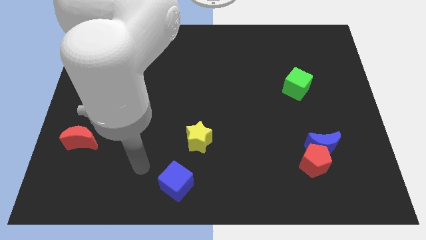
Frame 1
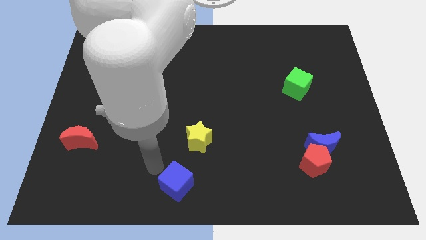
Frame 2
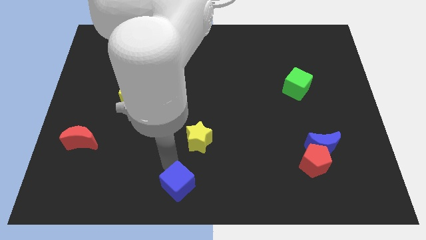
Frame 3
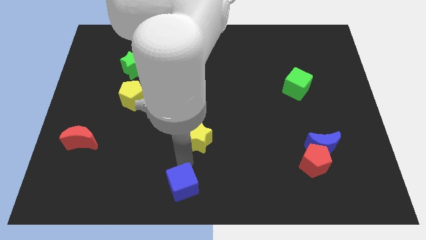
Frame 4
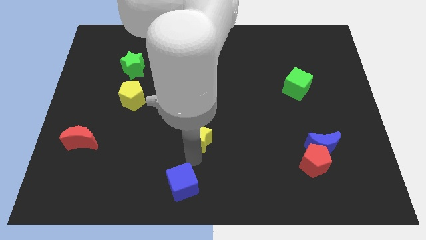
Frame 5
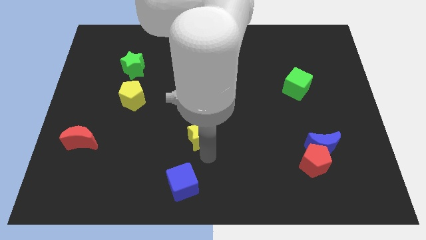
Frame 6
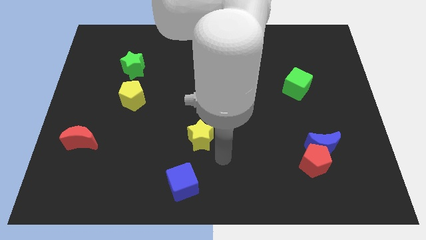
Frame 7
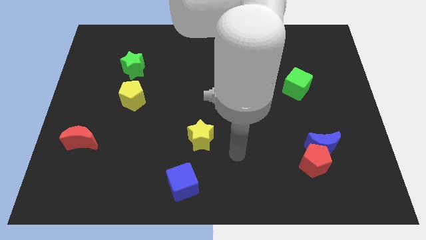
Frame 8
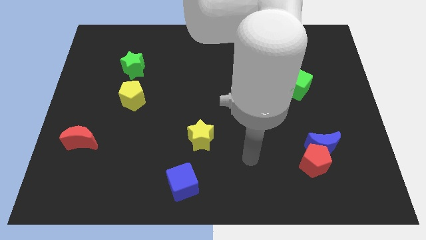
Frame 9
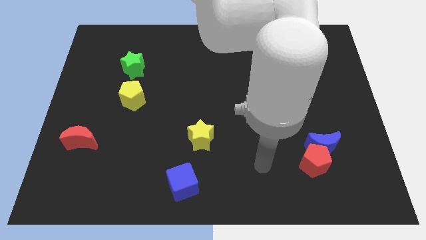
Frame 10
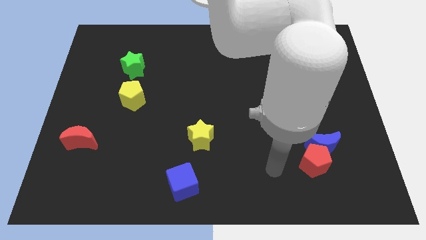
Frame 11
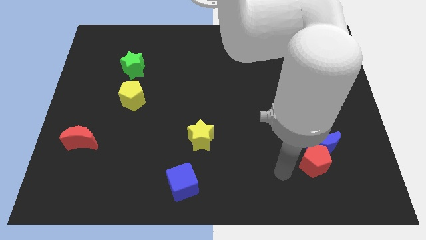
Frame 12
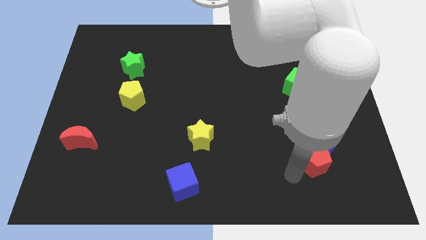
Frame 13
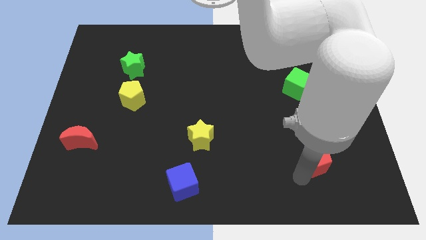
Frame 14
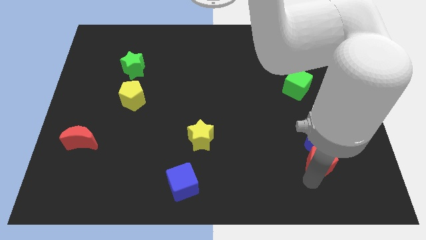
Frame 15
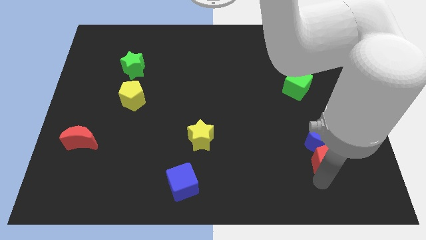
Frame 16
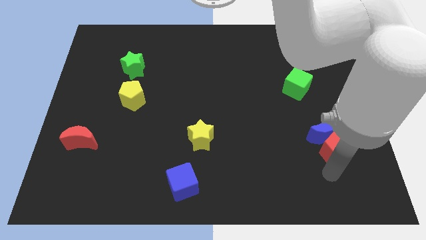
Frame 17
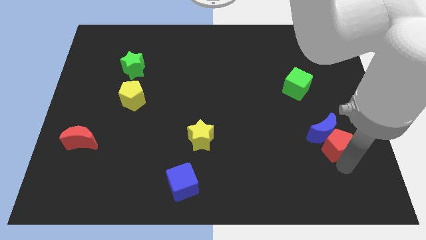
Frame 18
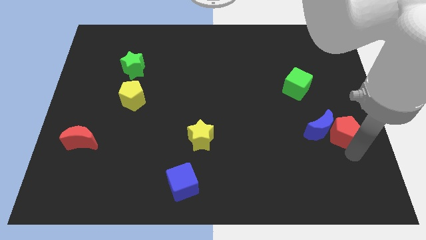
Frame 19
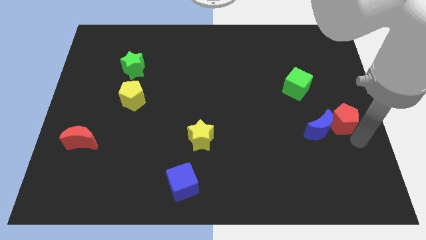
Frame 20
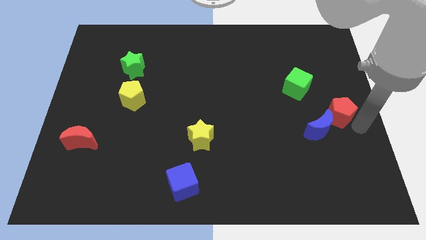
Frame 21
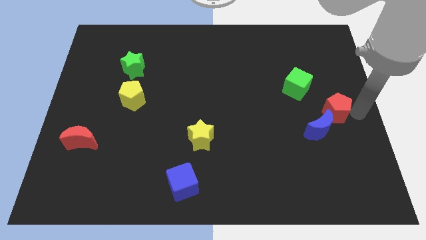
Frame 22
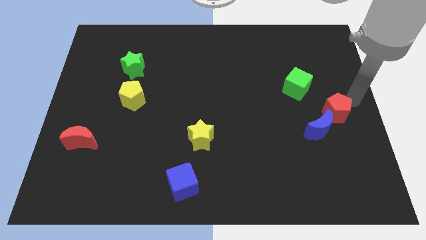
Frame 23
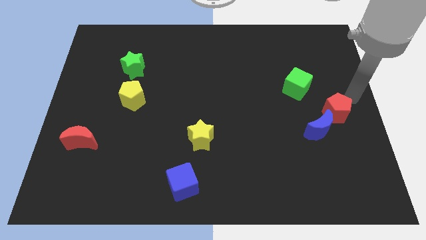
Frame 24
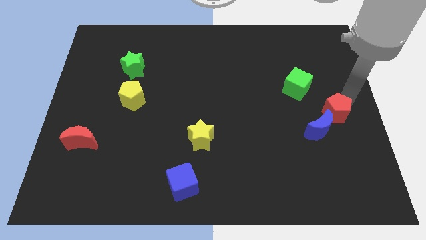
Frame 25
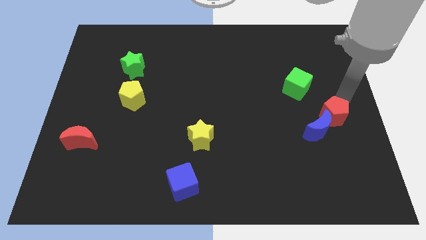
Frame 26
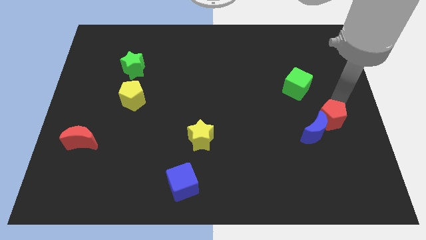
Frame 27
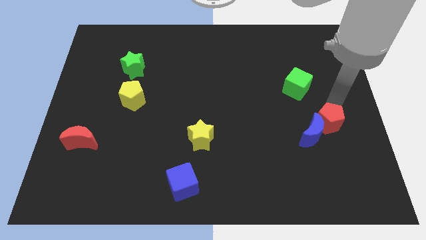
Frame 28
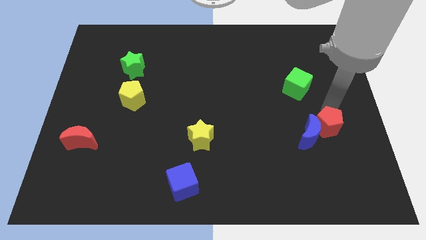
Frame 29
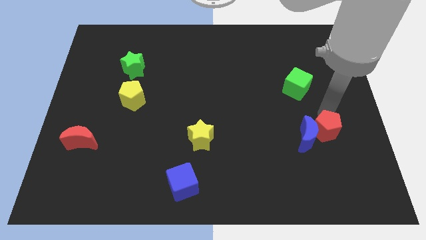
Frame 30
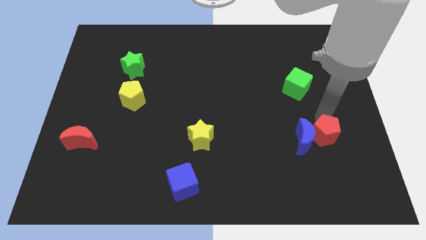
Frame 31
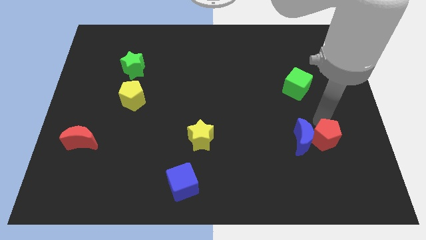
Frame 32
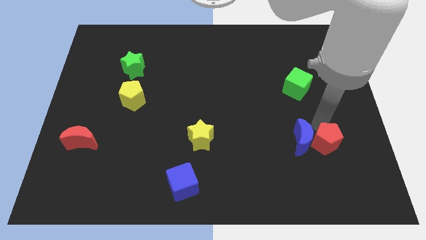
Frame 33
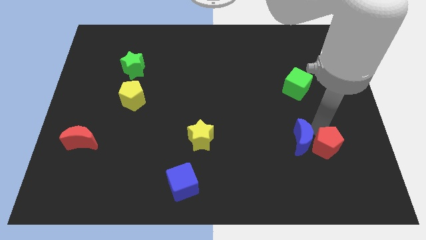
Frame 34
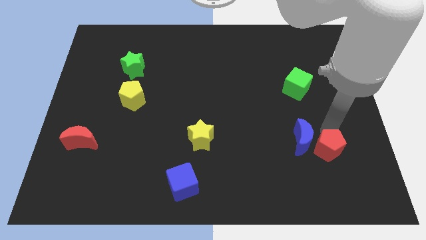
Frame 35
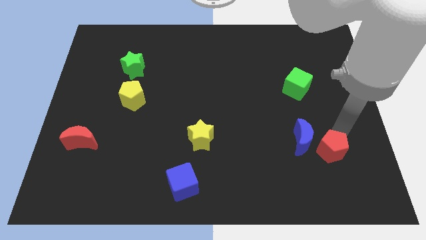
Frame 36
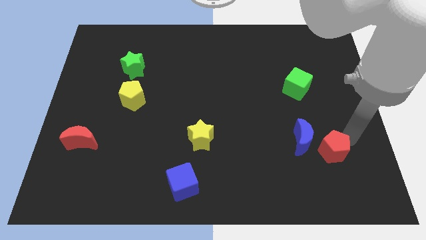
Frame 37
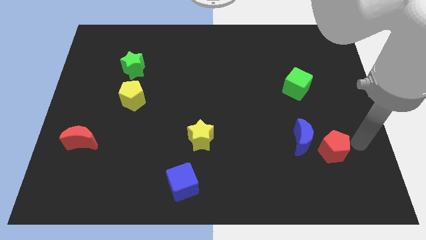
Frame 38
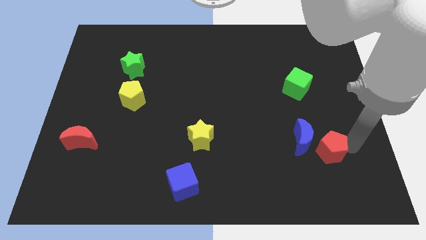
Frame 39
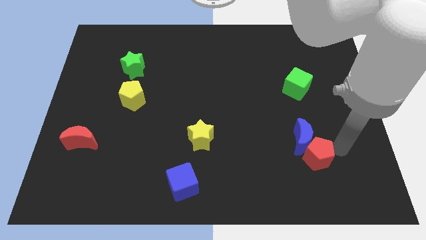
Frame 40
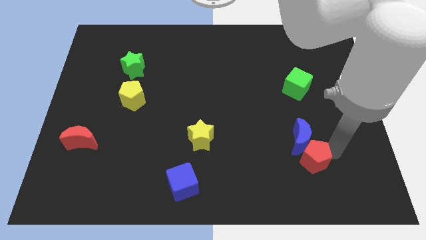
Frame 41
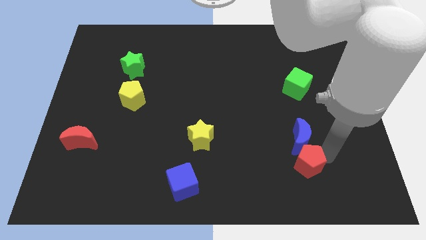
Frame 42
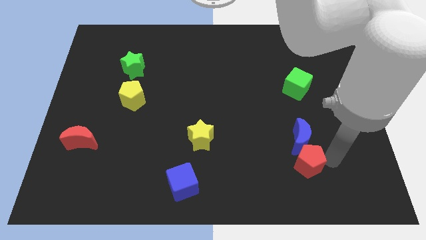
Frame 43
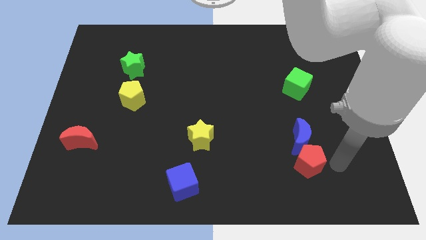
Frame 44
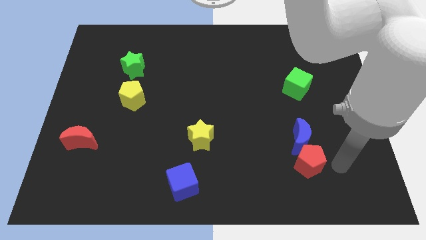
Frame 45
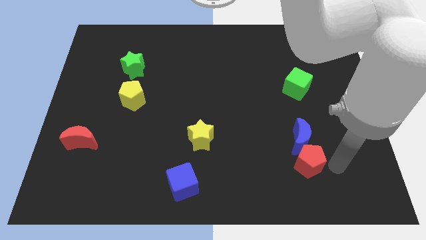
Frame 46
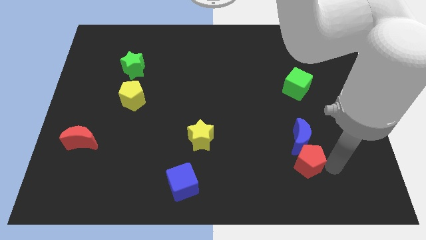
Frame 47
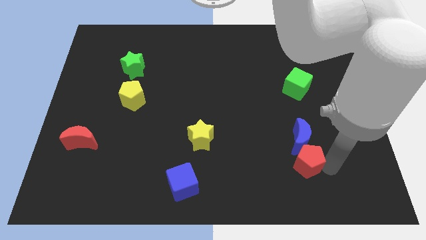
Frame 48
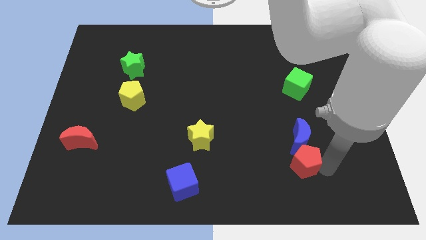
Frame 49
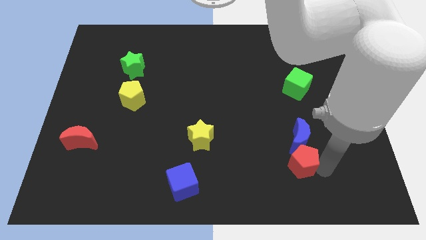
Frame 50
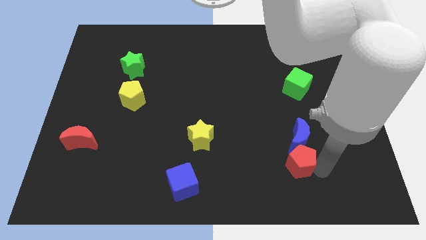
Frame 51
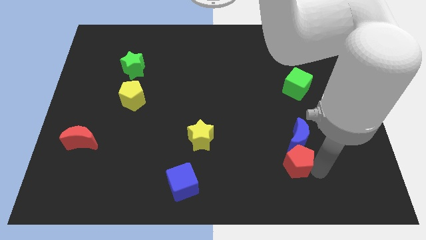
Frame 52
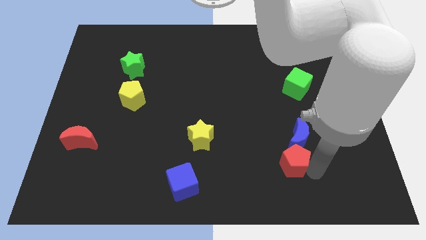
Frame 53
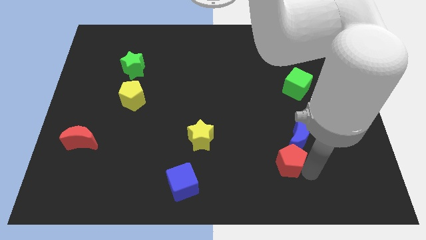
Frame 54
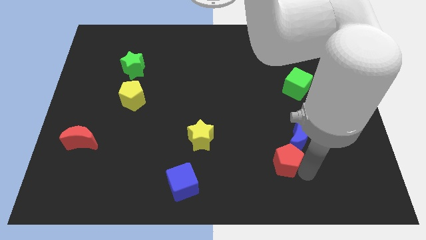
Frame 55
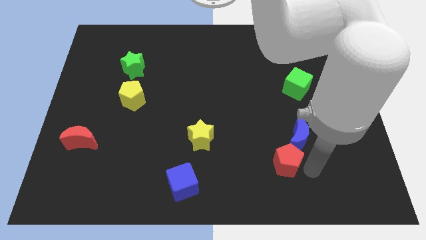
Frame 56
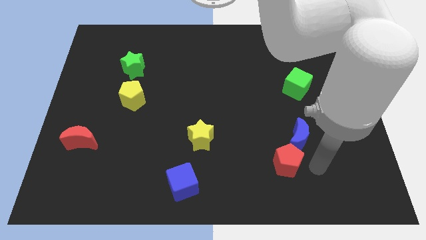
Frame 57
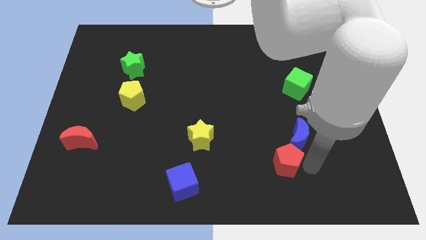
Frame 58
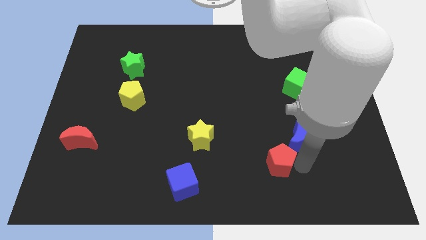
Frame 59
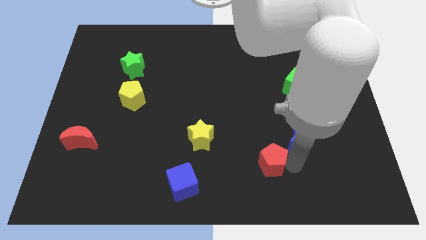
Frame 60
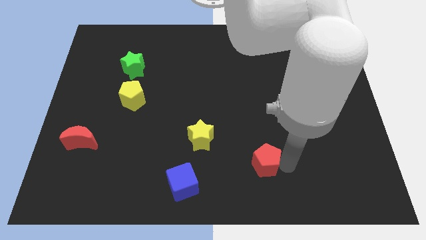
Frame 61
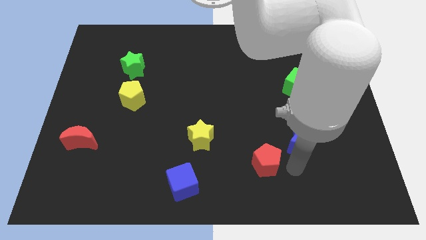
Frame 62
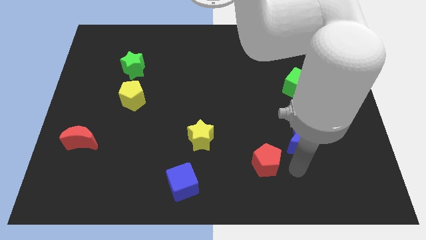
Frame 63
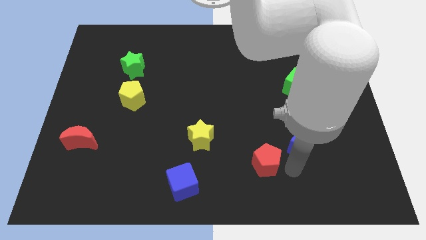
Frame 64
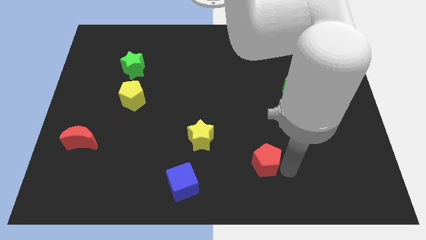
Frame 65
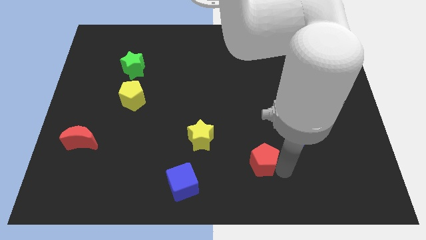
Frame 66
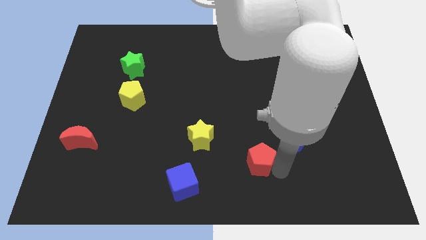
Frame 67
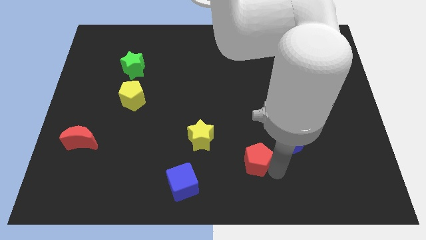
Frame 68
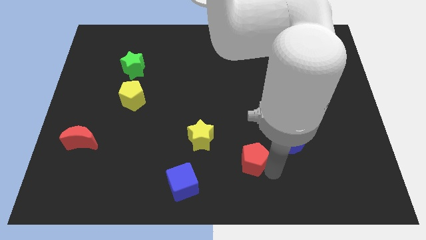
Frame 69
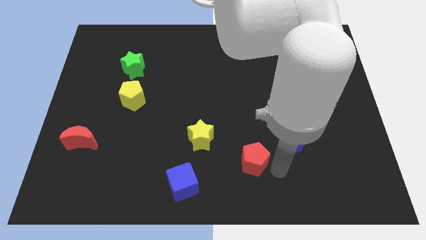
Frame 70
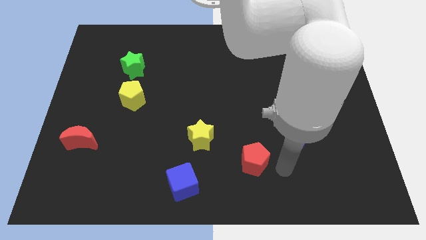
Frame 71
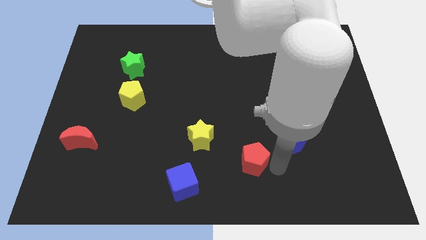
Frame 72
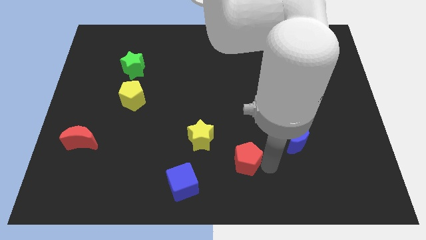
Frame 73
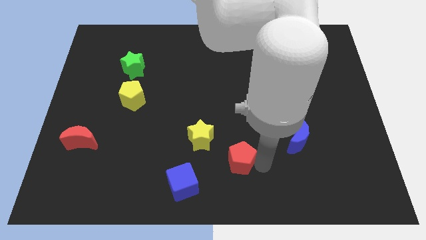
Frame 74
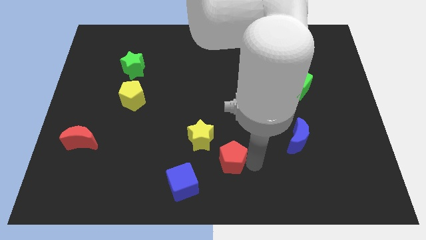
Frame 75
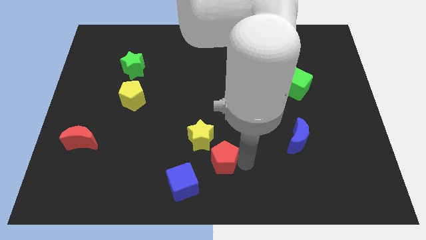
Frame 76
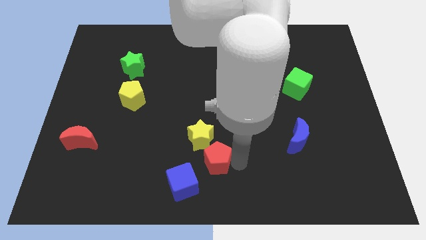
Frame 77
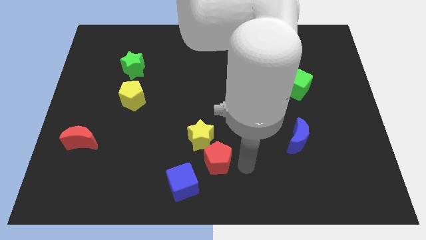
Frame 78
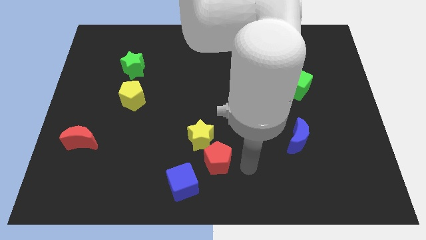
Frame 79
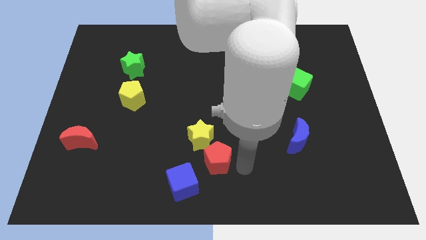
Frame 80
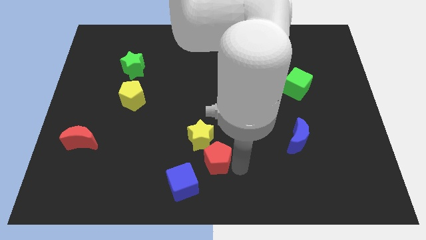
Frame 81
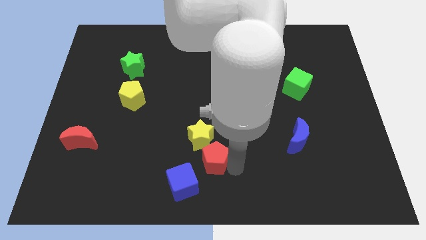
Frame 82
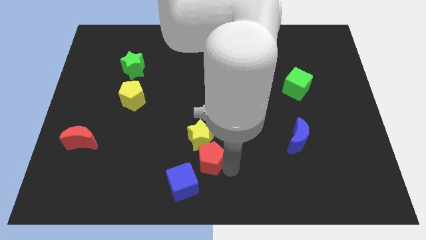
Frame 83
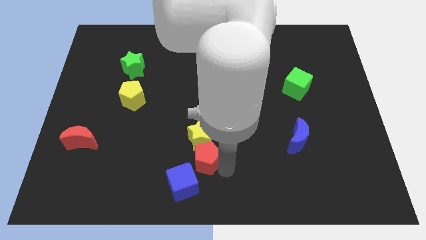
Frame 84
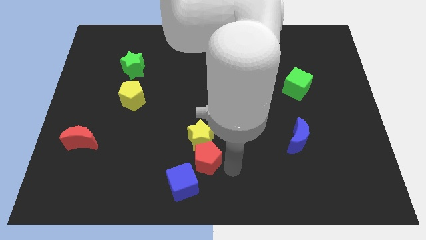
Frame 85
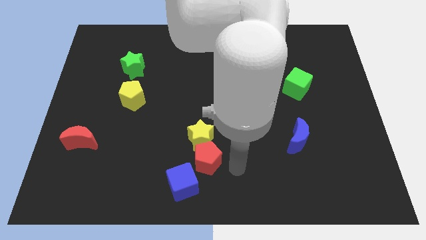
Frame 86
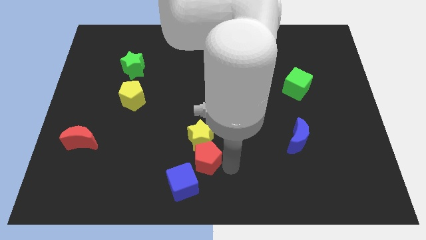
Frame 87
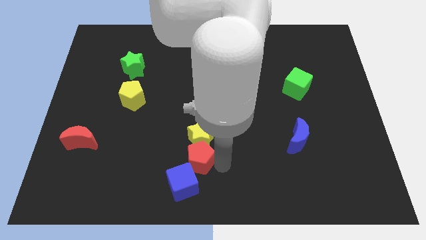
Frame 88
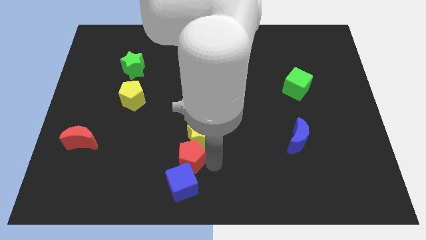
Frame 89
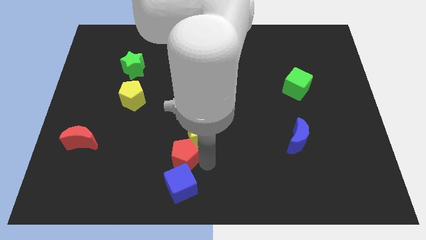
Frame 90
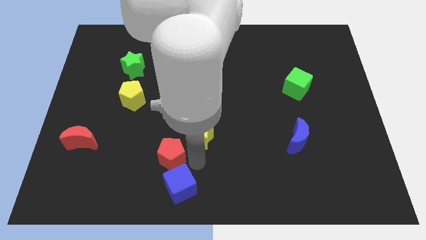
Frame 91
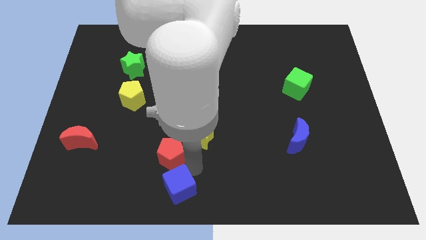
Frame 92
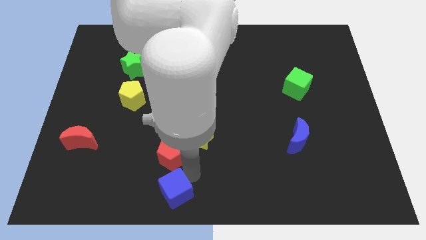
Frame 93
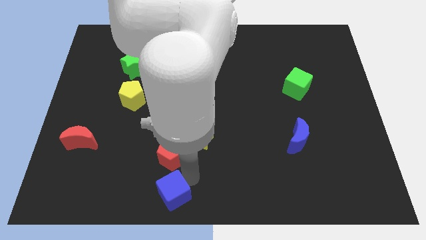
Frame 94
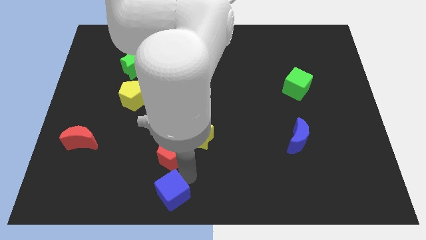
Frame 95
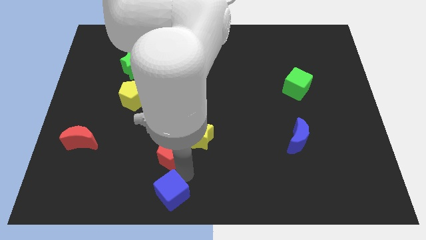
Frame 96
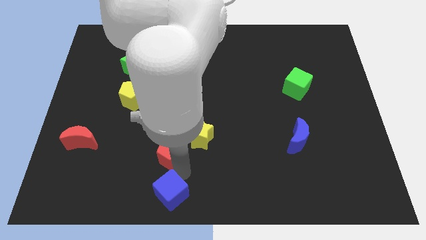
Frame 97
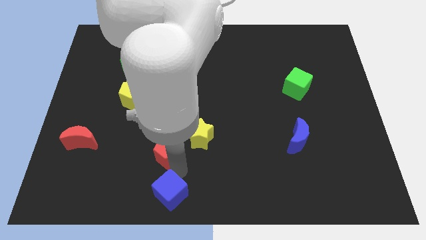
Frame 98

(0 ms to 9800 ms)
push the red pentagon to the left side of the yellow star
